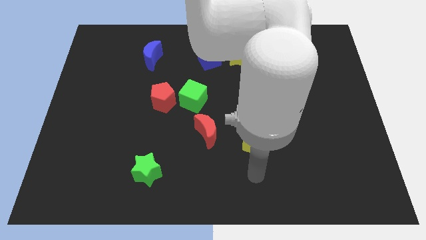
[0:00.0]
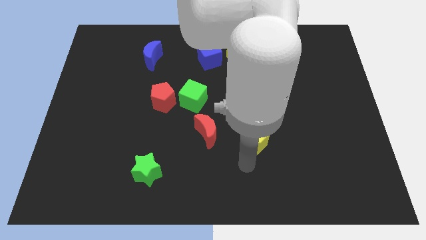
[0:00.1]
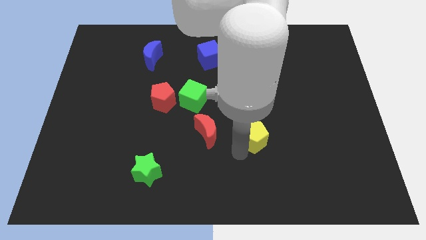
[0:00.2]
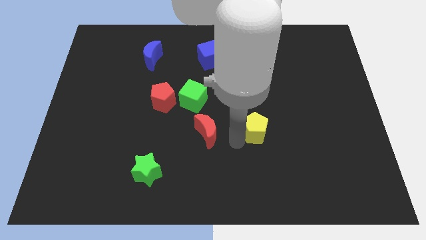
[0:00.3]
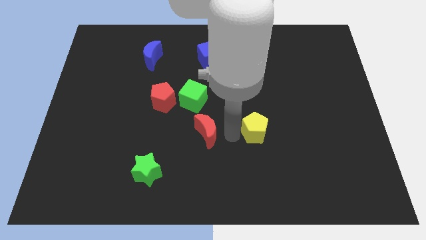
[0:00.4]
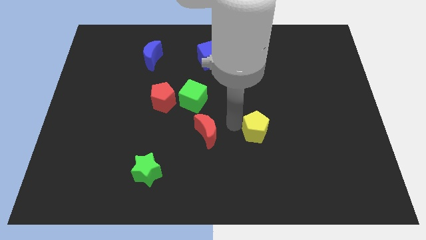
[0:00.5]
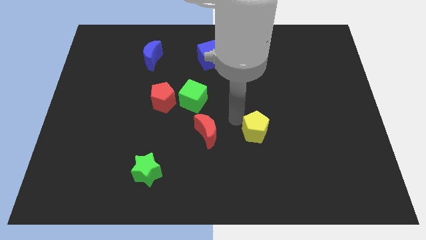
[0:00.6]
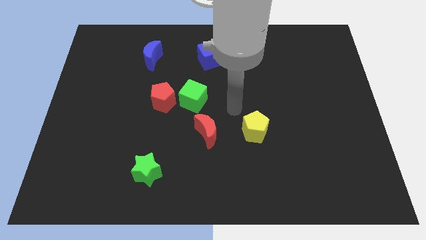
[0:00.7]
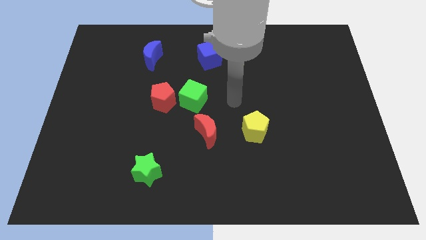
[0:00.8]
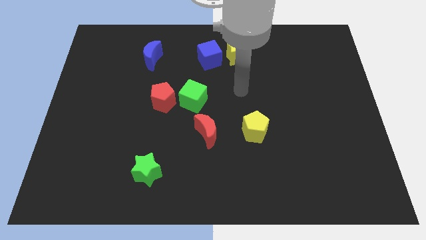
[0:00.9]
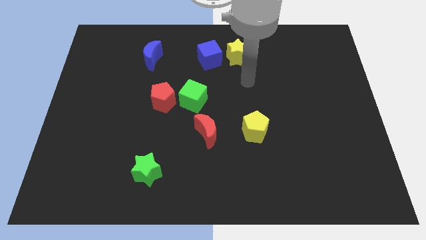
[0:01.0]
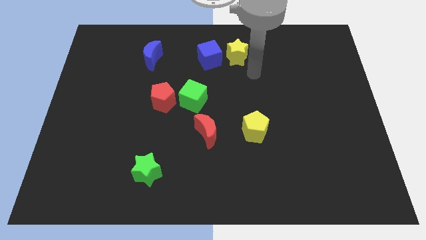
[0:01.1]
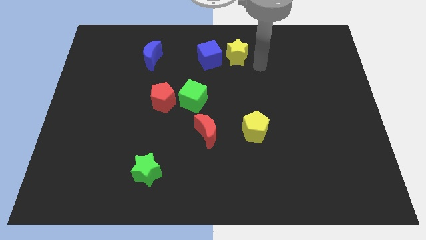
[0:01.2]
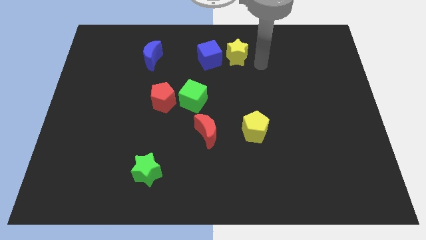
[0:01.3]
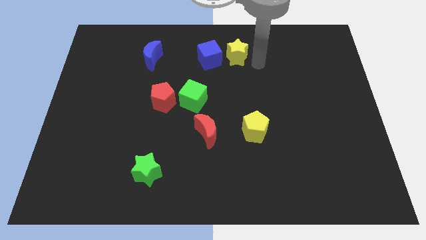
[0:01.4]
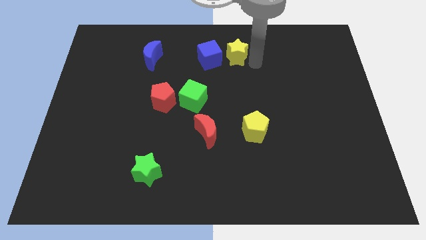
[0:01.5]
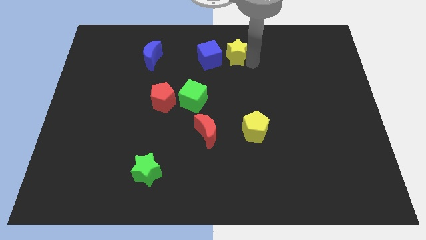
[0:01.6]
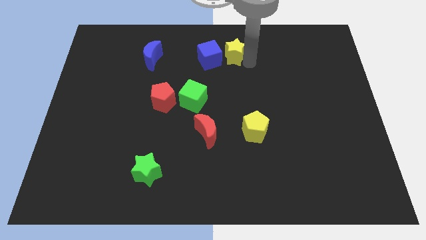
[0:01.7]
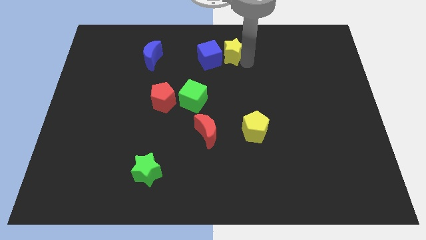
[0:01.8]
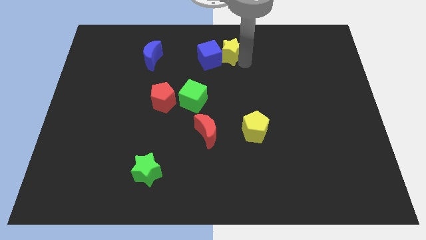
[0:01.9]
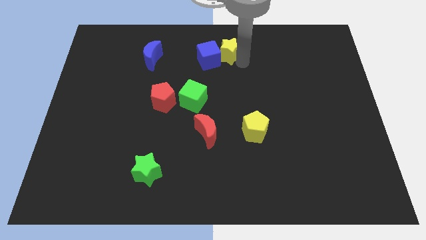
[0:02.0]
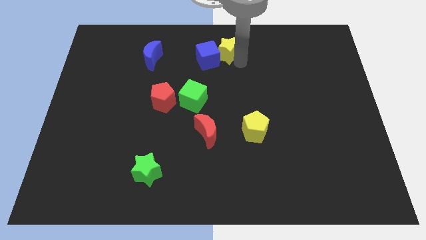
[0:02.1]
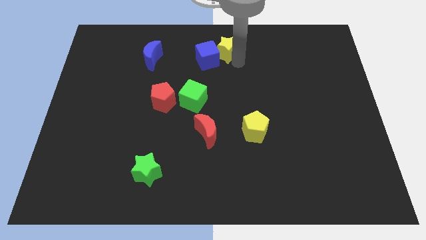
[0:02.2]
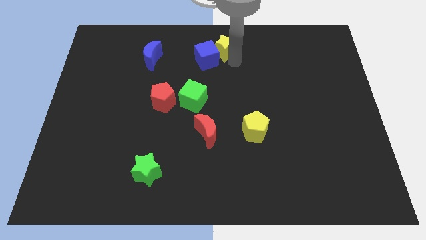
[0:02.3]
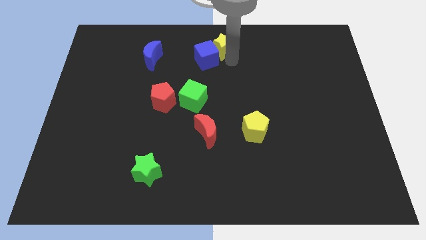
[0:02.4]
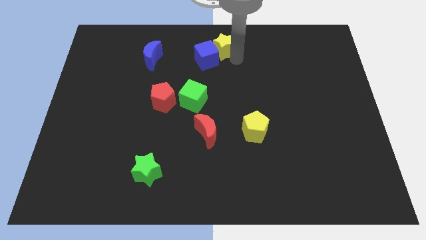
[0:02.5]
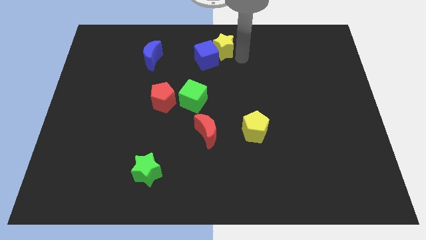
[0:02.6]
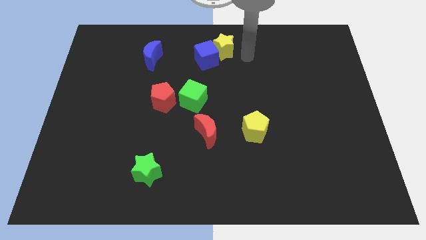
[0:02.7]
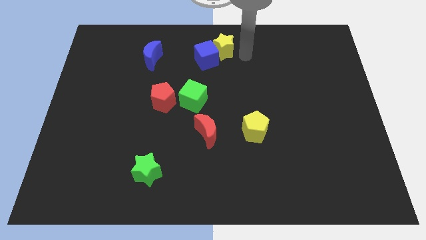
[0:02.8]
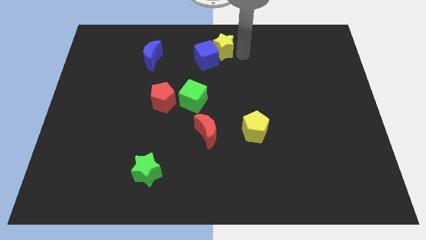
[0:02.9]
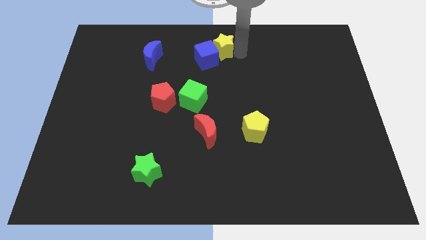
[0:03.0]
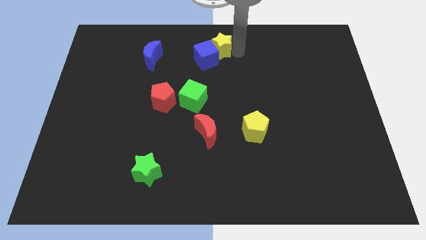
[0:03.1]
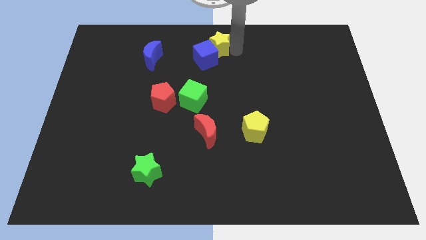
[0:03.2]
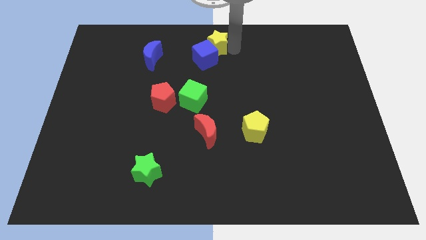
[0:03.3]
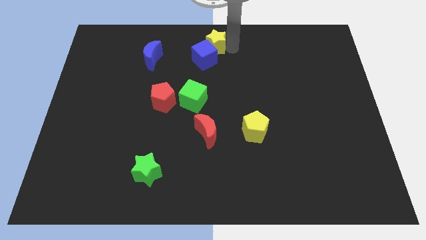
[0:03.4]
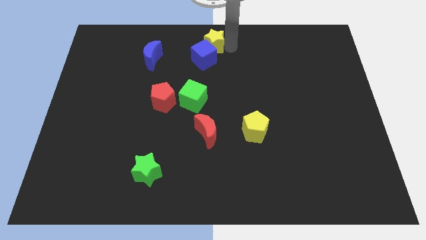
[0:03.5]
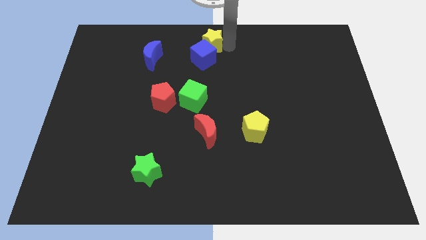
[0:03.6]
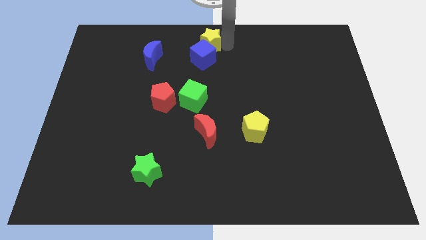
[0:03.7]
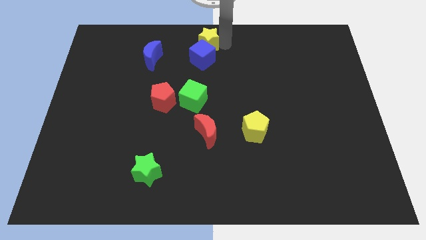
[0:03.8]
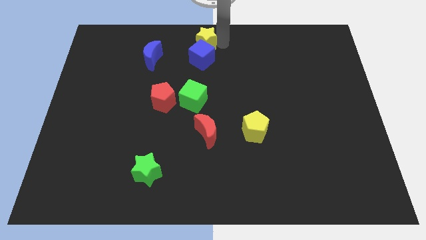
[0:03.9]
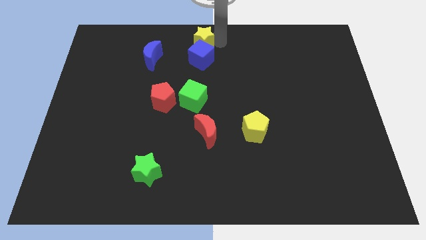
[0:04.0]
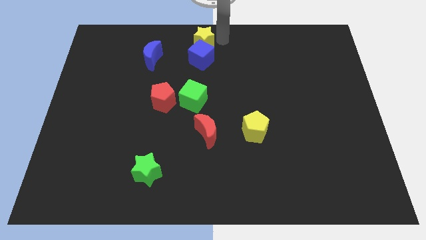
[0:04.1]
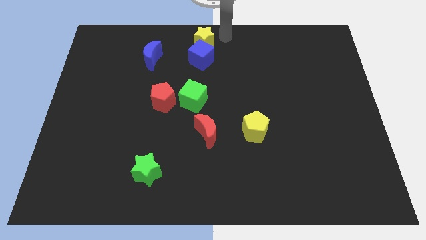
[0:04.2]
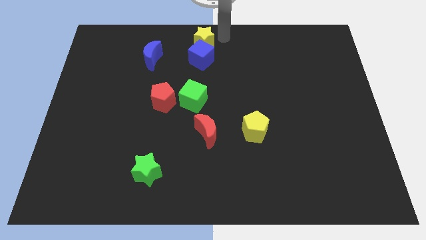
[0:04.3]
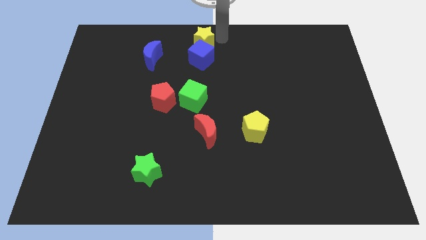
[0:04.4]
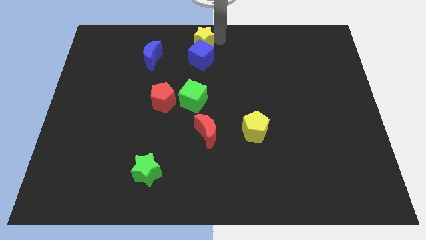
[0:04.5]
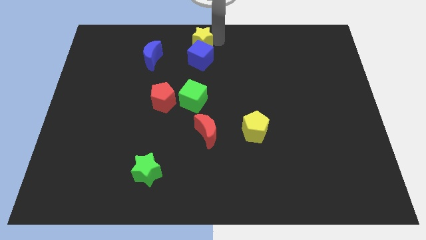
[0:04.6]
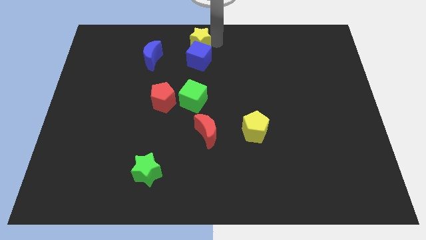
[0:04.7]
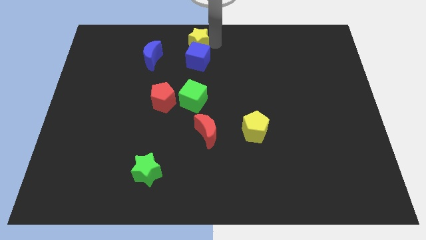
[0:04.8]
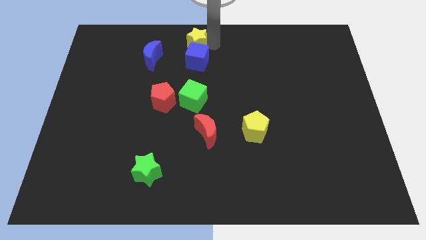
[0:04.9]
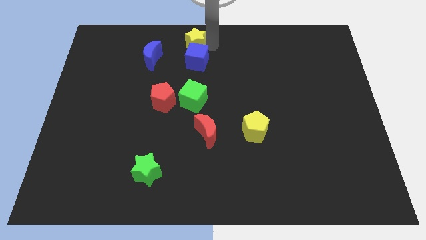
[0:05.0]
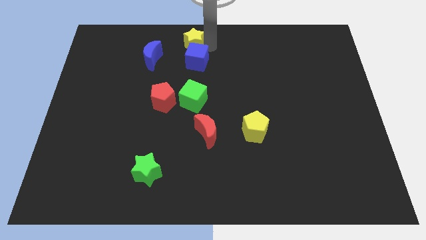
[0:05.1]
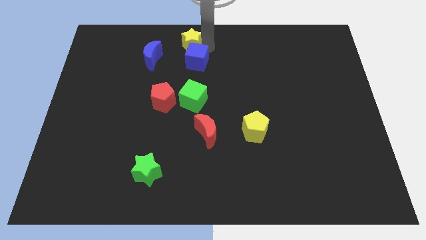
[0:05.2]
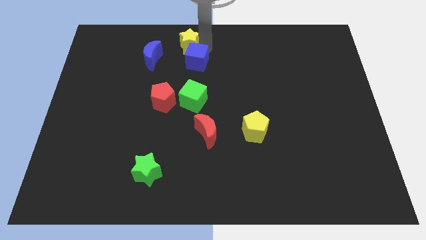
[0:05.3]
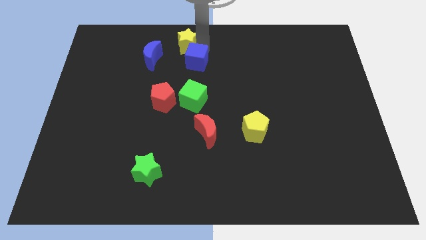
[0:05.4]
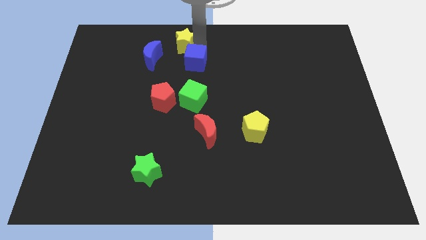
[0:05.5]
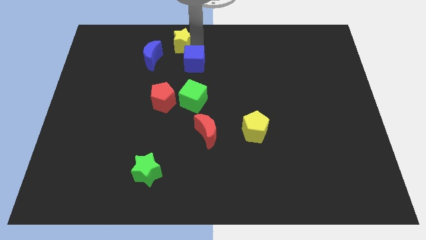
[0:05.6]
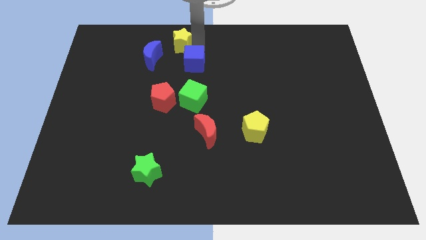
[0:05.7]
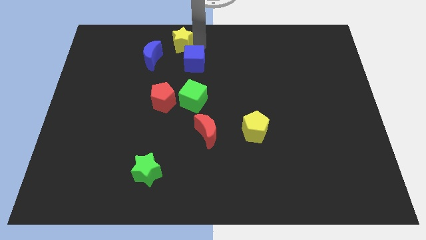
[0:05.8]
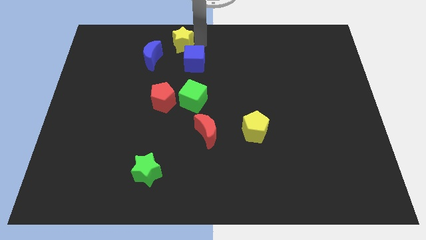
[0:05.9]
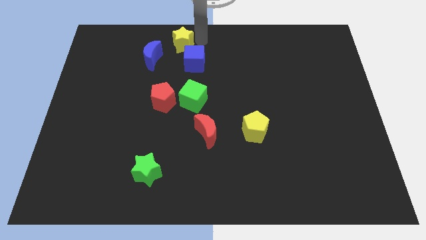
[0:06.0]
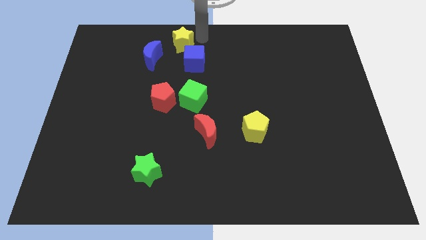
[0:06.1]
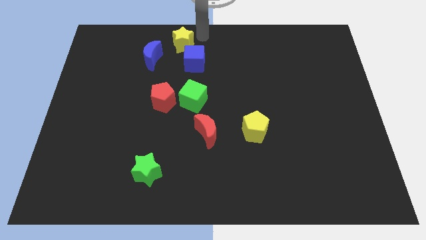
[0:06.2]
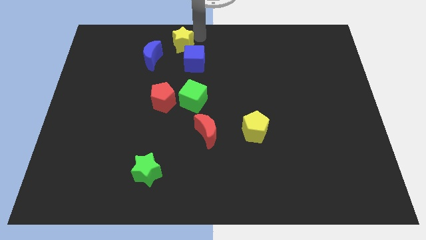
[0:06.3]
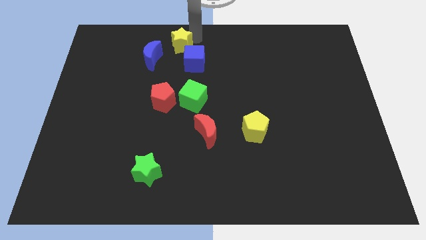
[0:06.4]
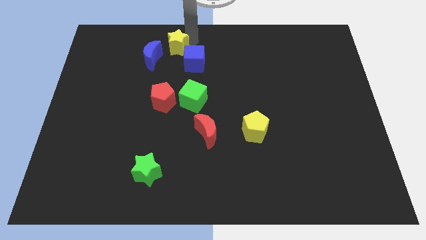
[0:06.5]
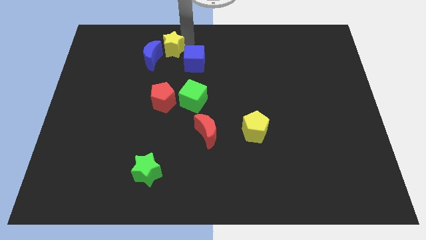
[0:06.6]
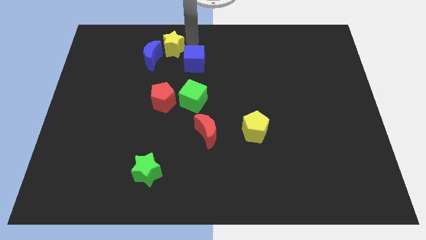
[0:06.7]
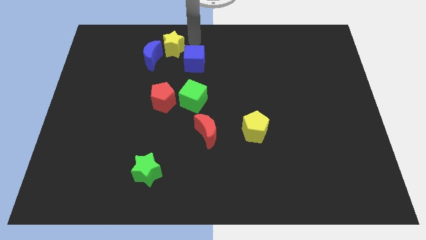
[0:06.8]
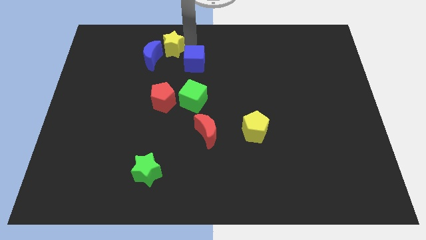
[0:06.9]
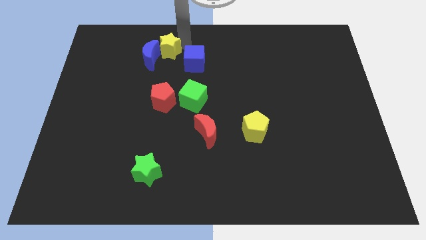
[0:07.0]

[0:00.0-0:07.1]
put the yellow star to the blue moon
